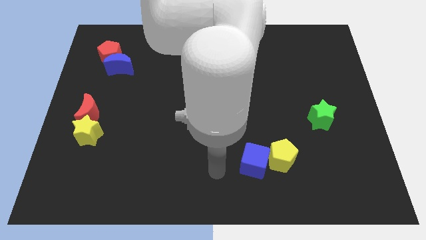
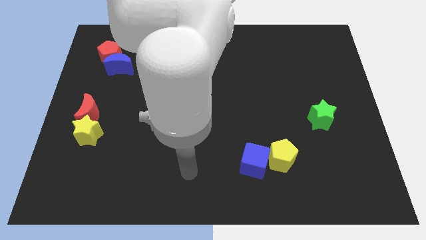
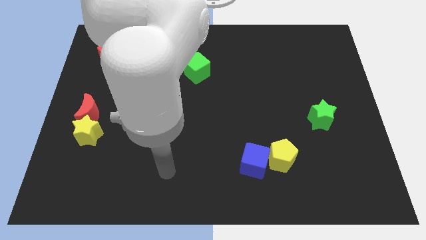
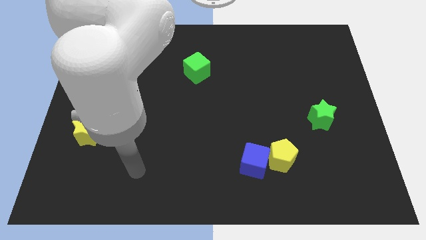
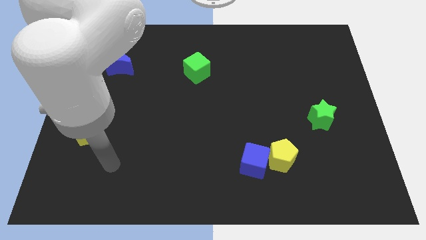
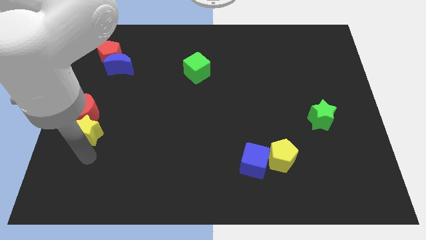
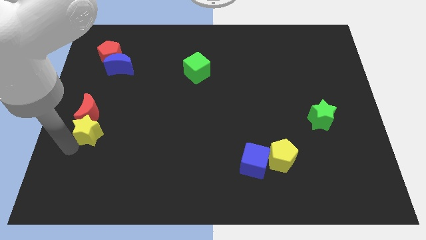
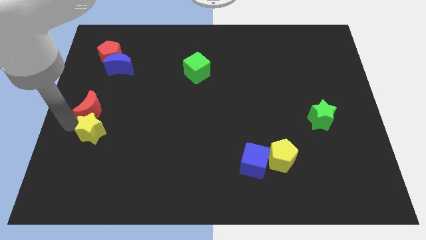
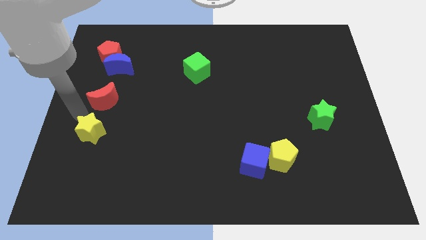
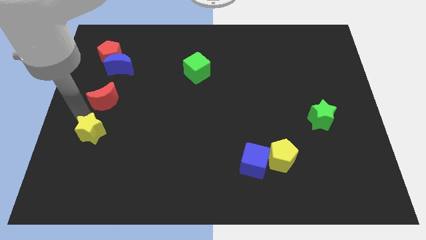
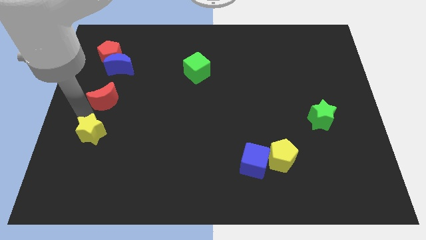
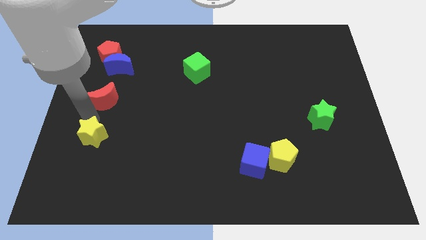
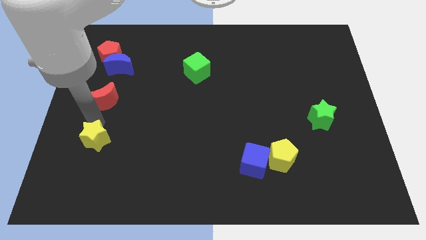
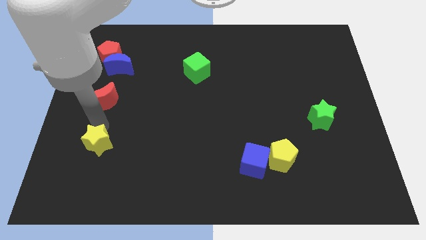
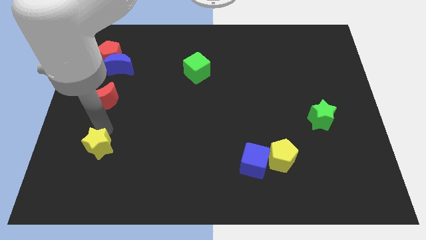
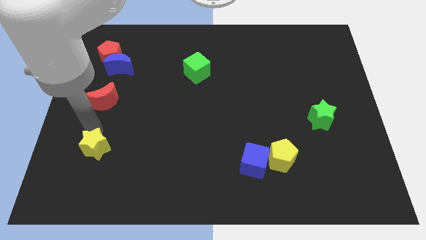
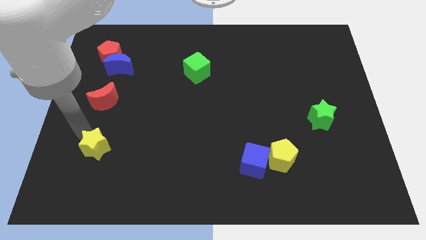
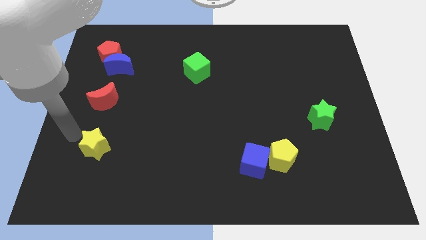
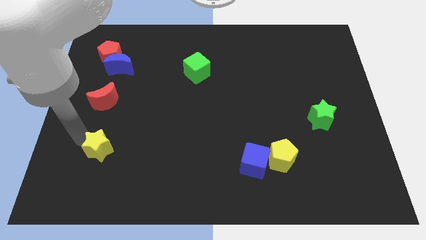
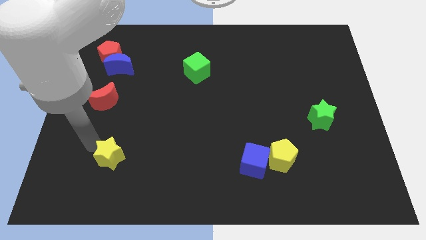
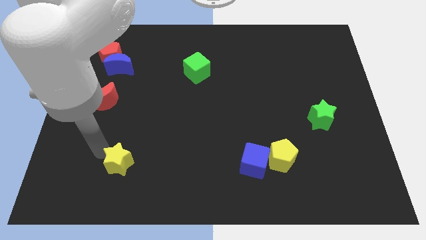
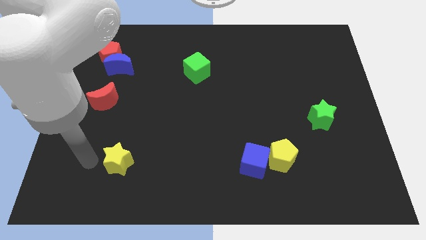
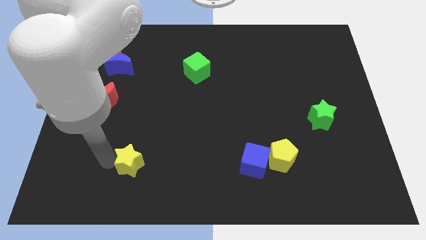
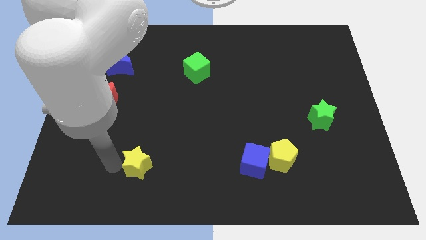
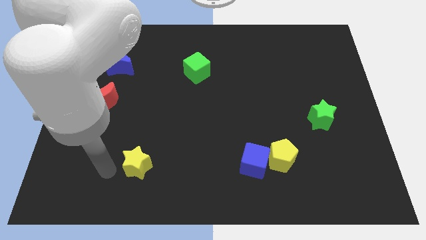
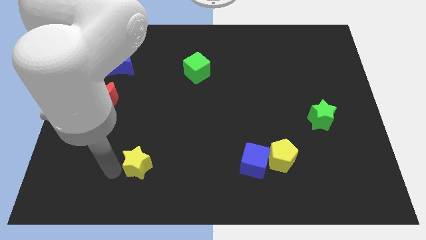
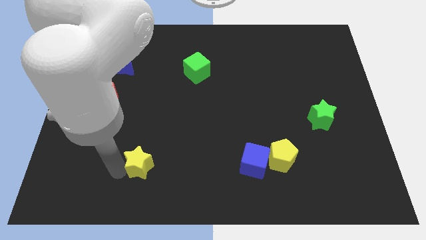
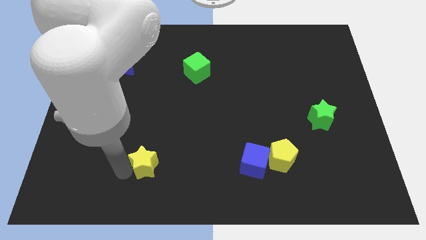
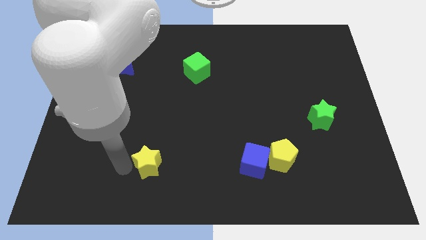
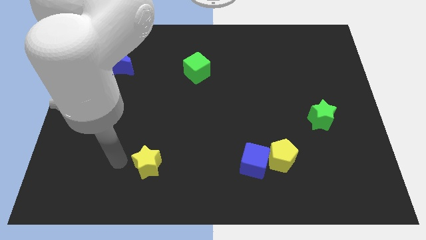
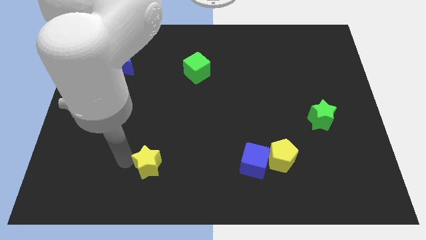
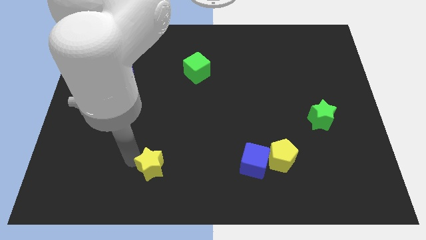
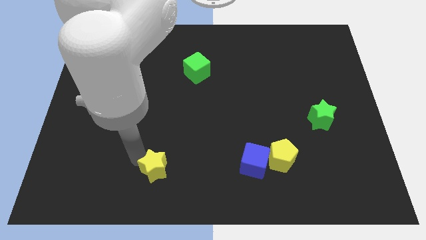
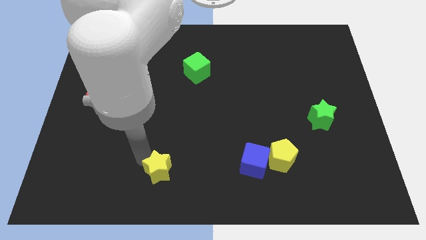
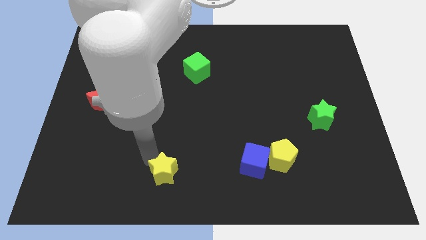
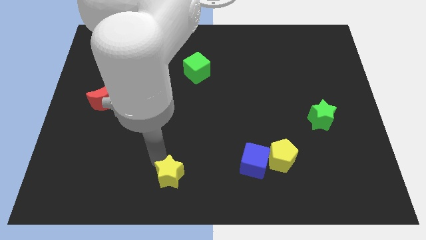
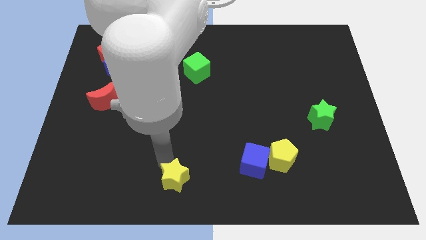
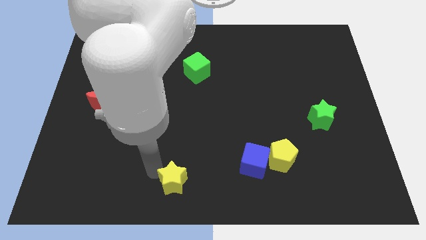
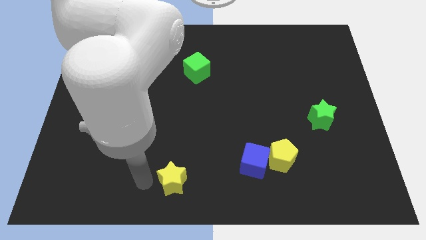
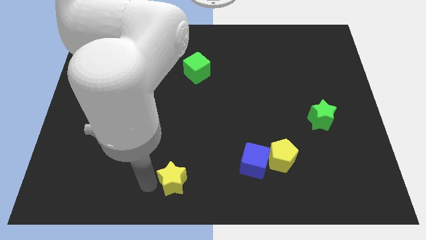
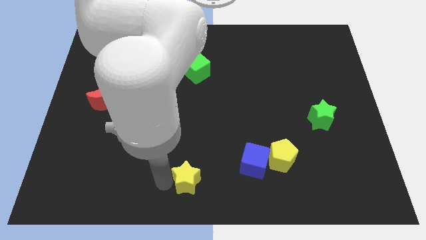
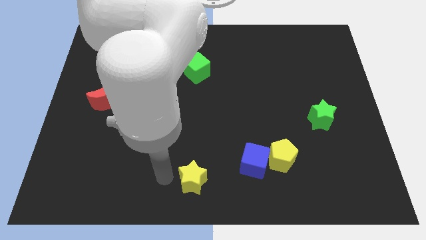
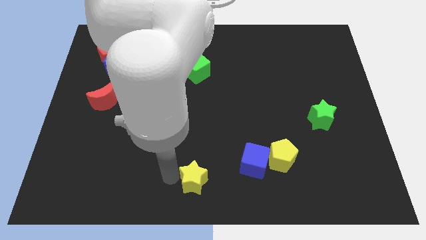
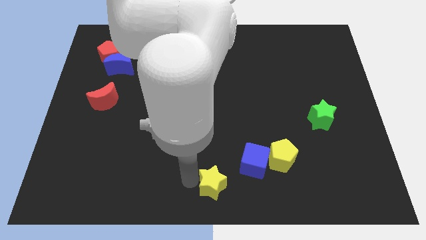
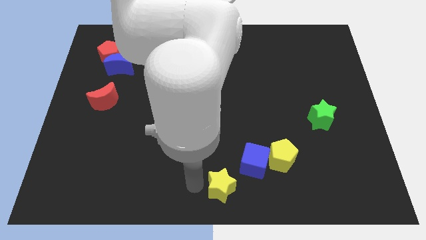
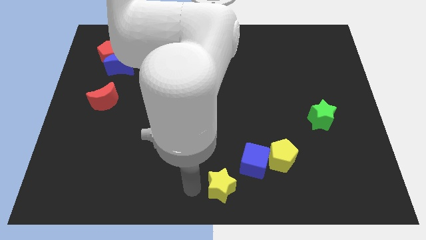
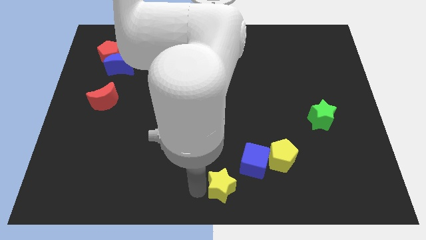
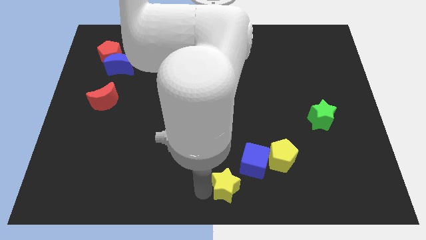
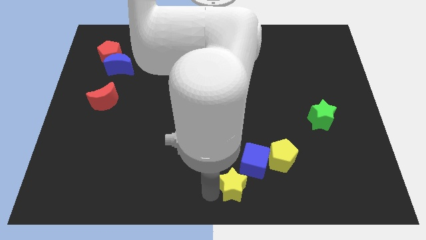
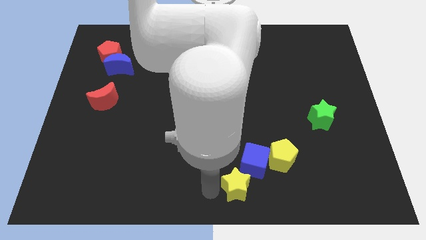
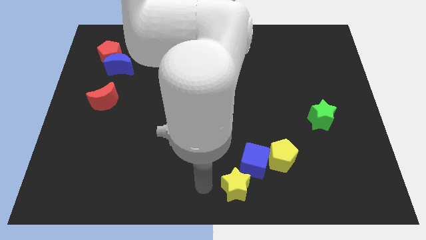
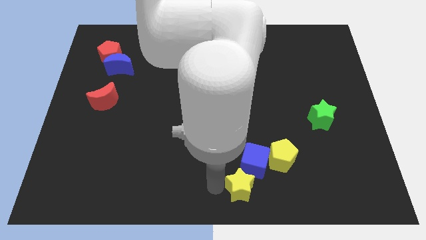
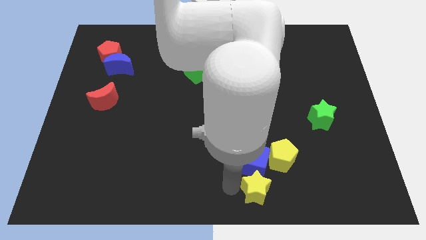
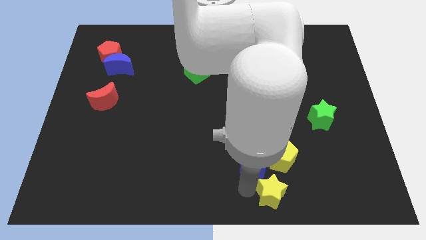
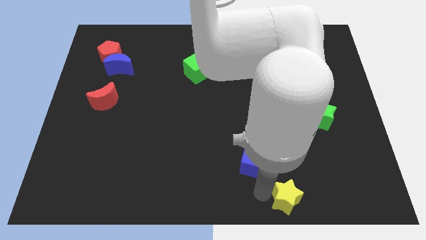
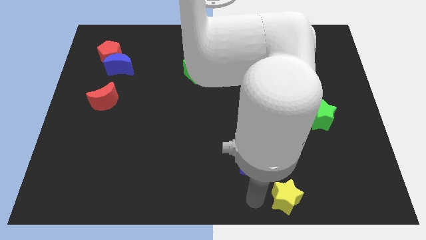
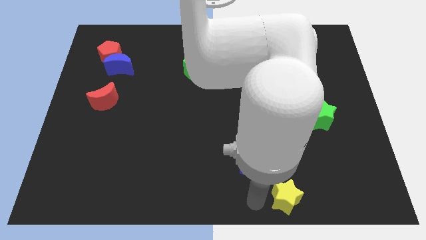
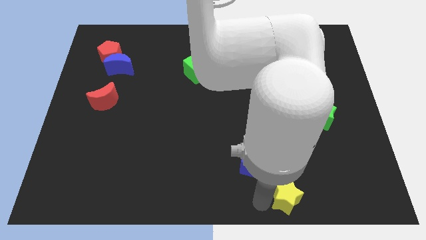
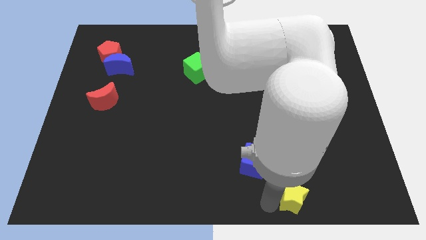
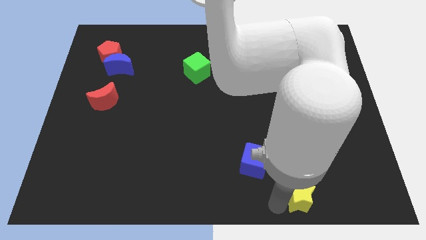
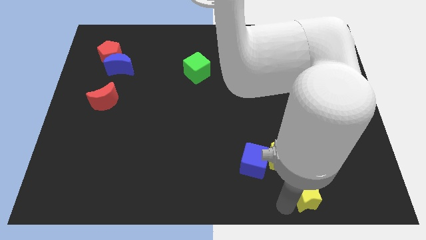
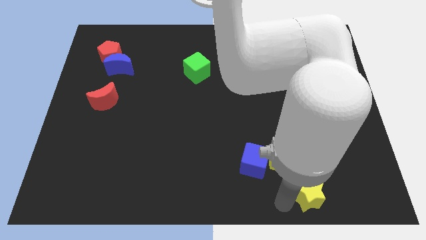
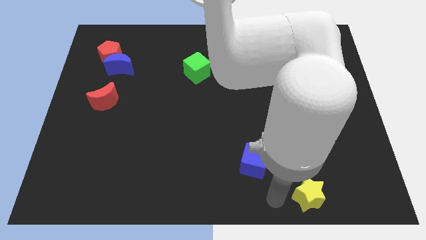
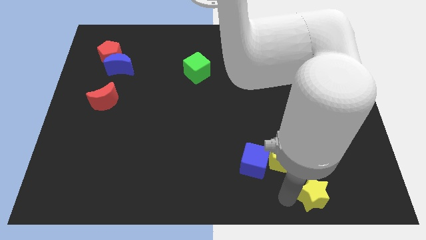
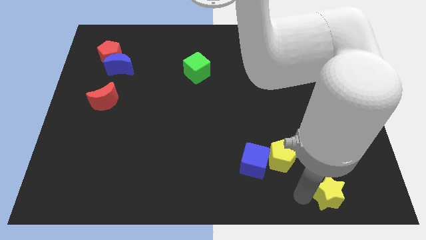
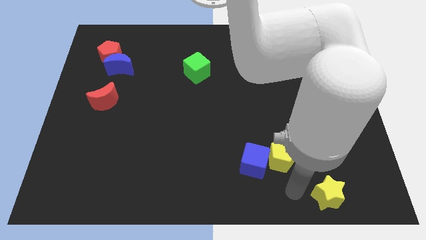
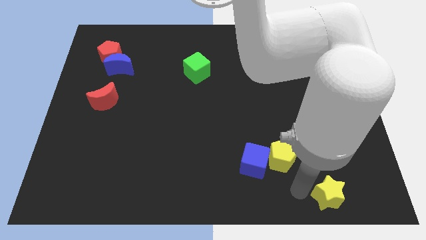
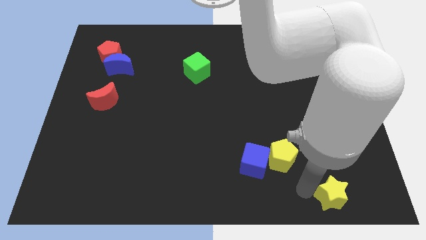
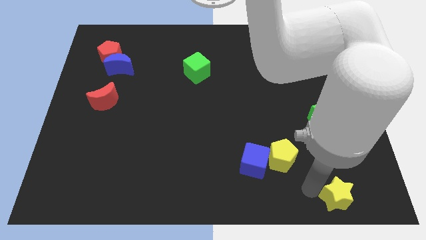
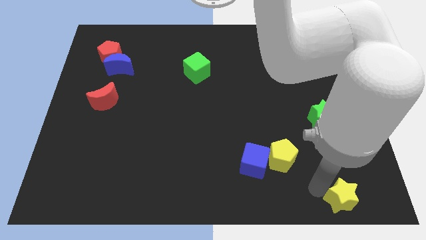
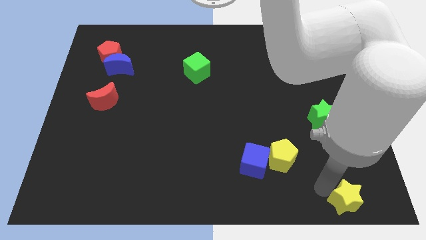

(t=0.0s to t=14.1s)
slide the yellow star to the bottom right
